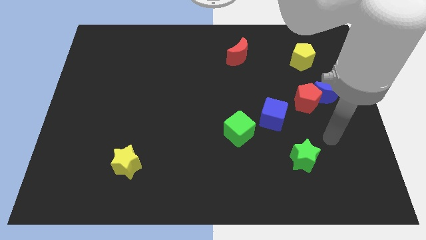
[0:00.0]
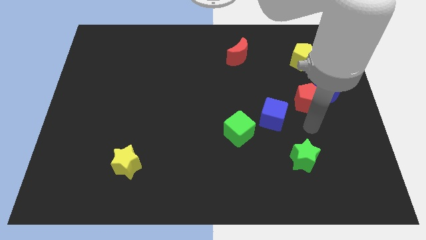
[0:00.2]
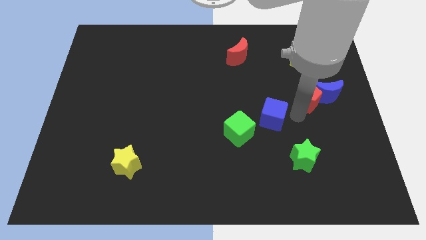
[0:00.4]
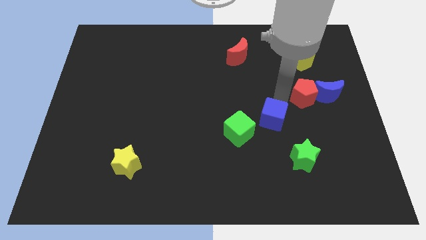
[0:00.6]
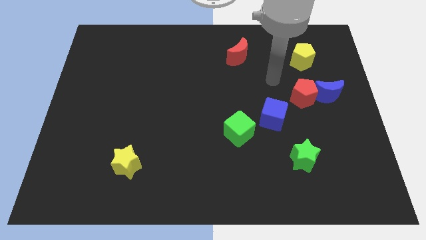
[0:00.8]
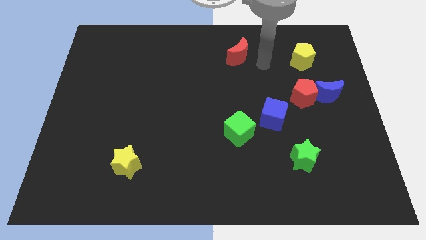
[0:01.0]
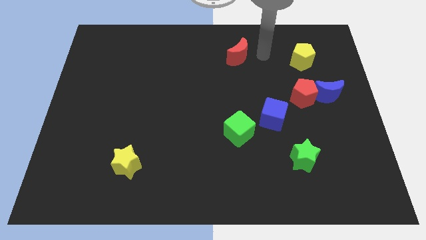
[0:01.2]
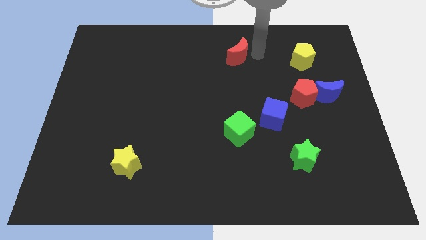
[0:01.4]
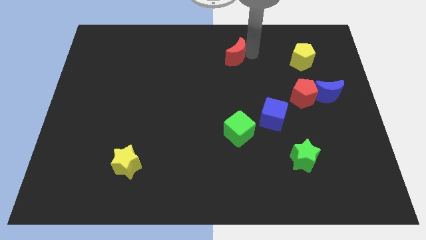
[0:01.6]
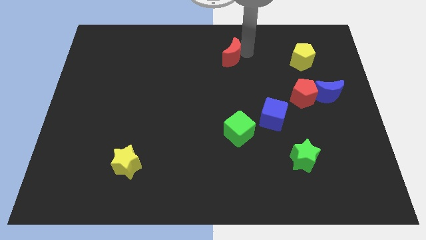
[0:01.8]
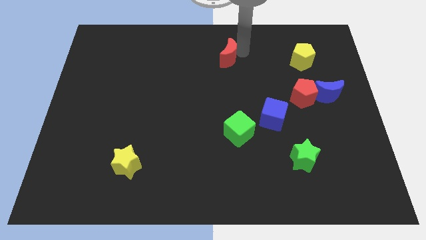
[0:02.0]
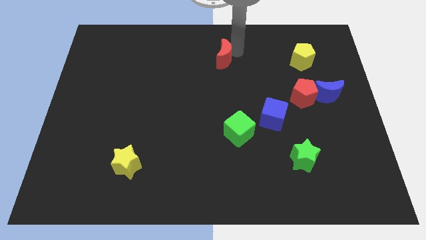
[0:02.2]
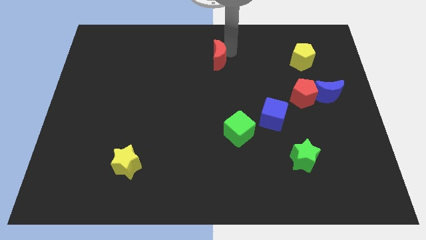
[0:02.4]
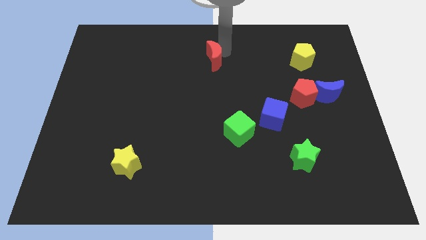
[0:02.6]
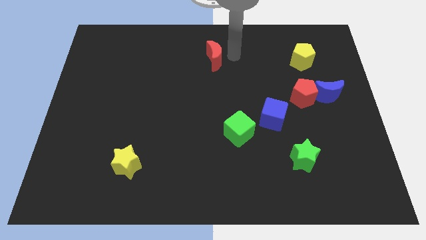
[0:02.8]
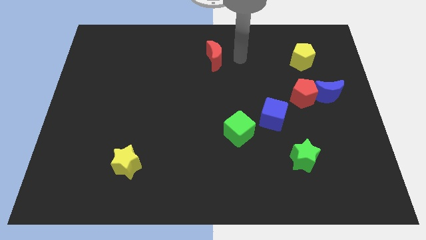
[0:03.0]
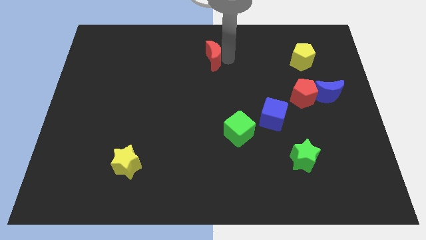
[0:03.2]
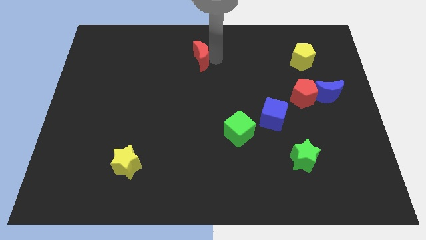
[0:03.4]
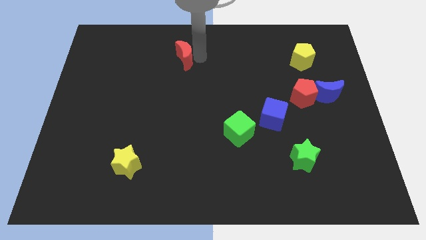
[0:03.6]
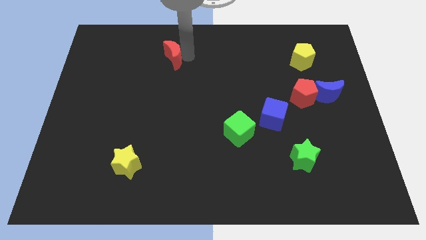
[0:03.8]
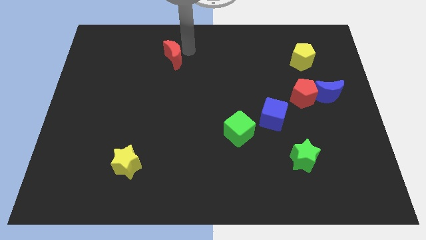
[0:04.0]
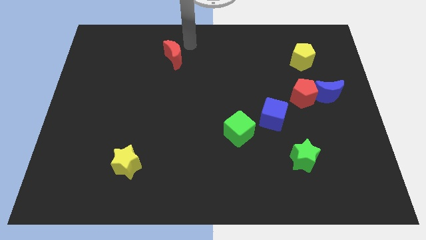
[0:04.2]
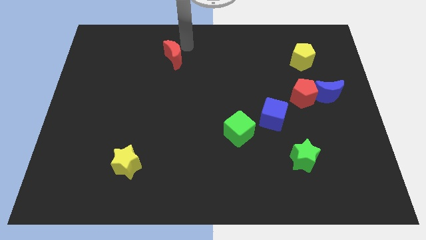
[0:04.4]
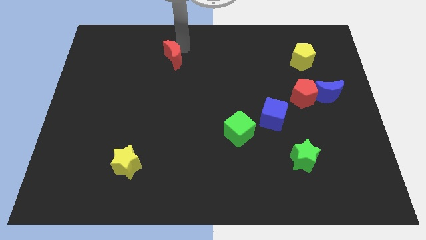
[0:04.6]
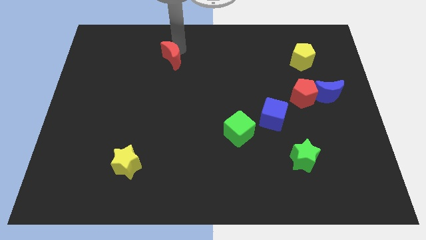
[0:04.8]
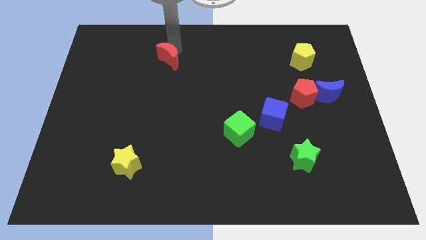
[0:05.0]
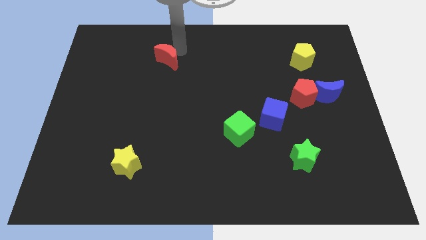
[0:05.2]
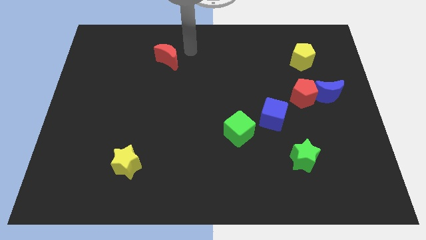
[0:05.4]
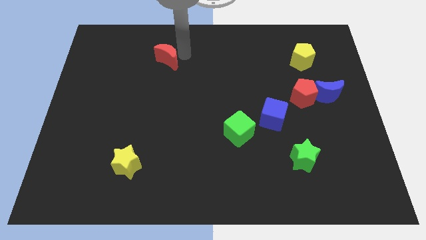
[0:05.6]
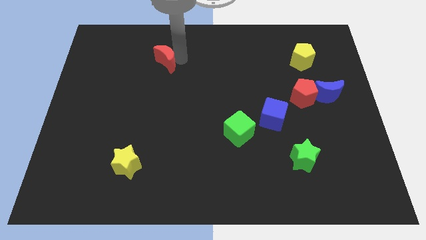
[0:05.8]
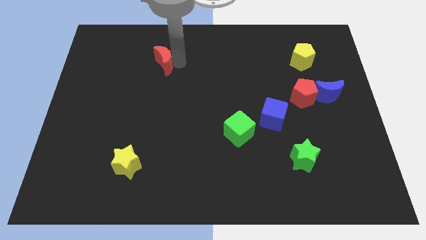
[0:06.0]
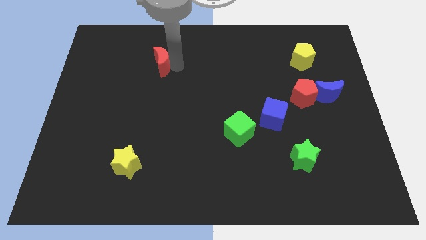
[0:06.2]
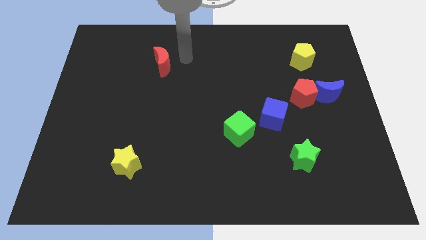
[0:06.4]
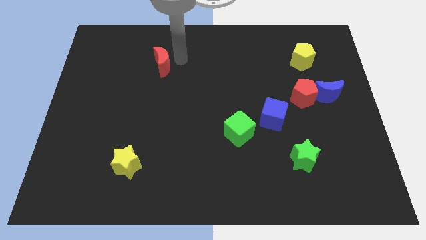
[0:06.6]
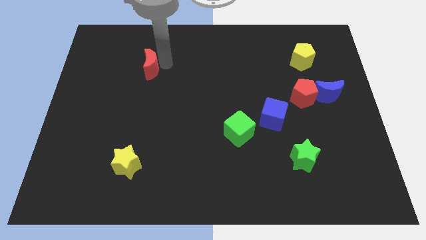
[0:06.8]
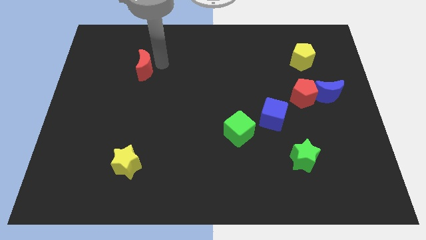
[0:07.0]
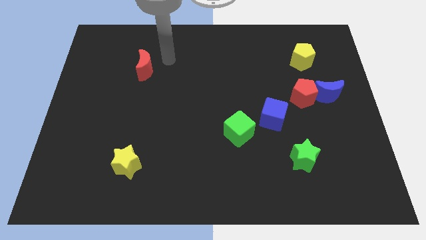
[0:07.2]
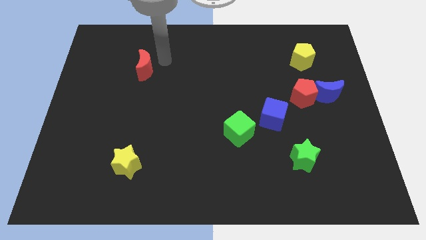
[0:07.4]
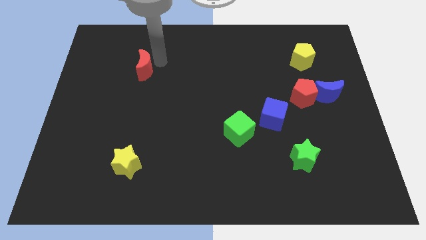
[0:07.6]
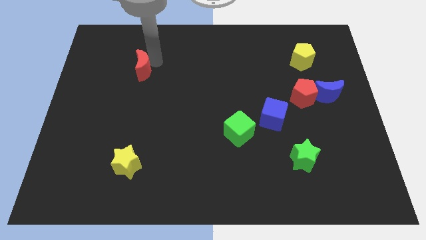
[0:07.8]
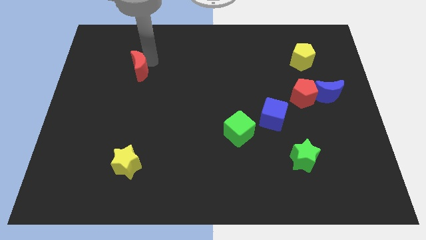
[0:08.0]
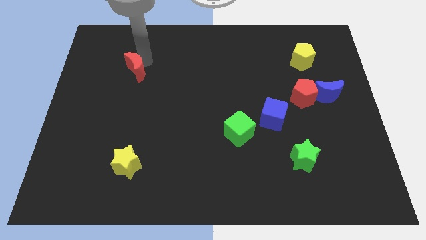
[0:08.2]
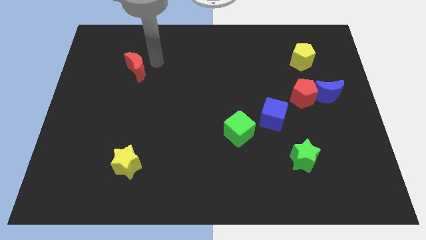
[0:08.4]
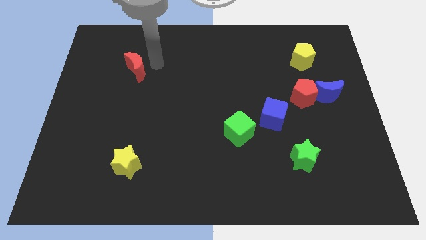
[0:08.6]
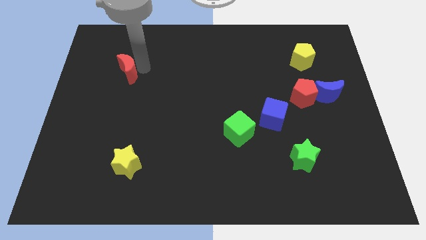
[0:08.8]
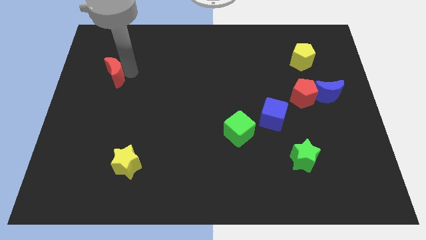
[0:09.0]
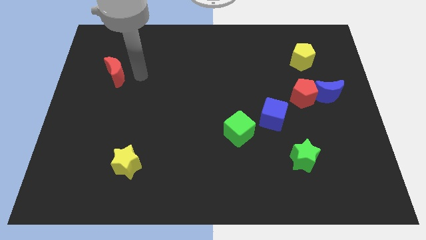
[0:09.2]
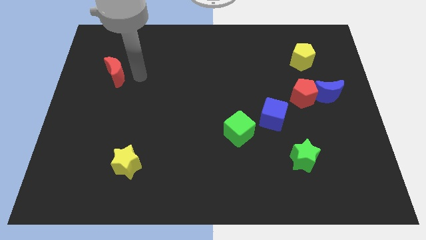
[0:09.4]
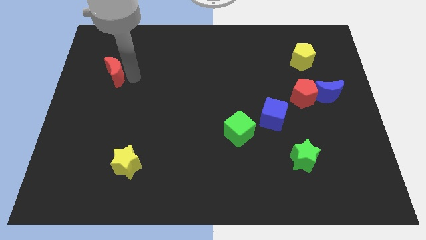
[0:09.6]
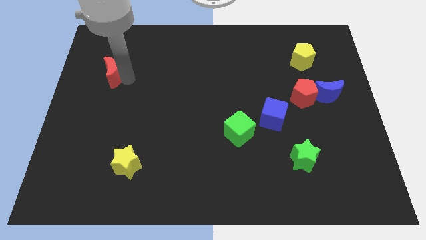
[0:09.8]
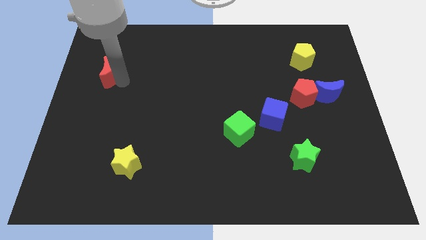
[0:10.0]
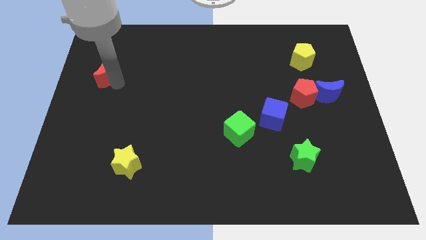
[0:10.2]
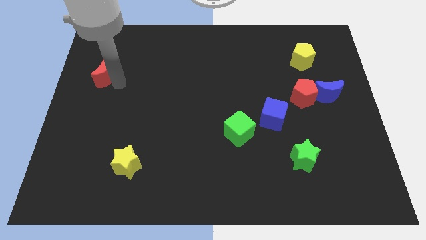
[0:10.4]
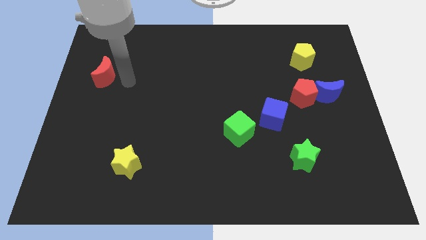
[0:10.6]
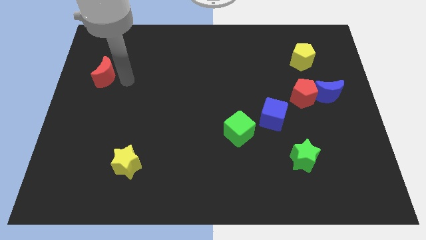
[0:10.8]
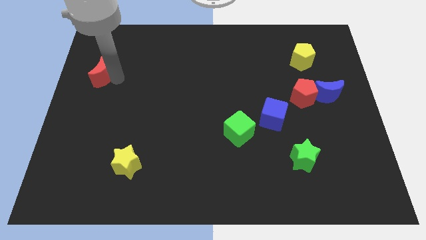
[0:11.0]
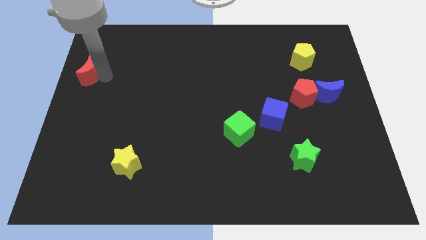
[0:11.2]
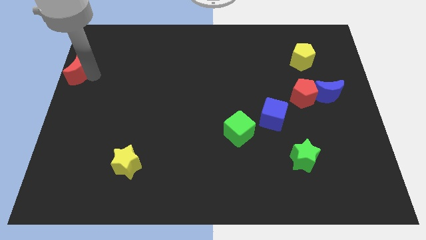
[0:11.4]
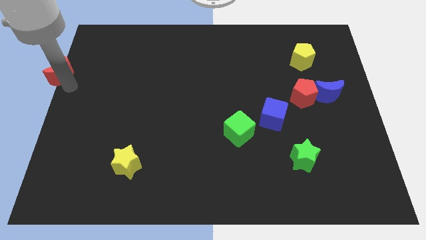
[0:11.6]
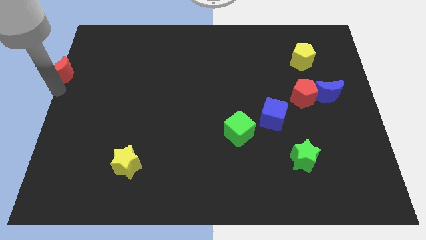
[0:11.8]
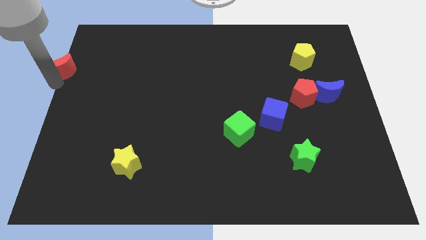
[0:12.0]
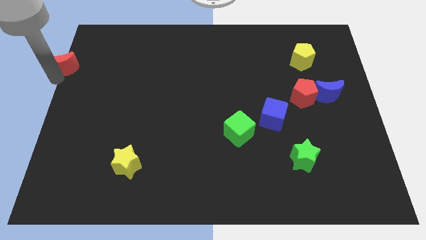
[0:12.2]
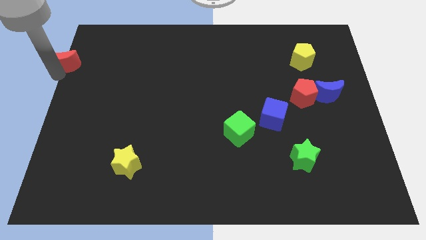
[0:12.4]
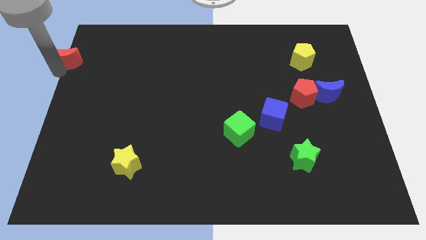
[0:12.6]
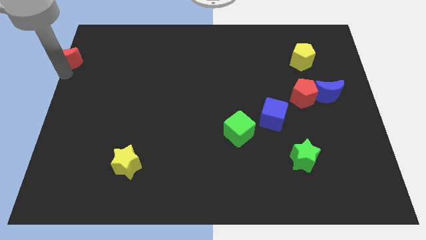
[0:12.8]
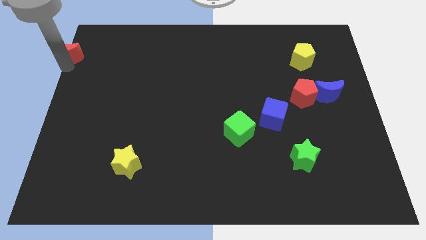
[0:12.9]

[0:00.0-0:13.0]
move the red moon to the top left
